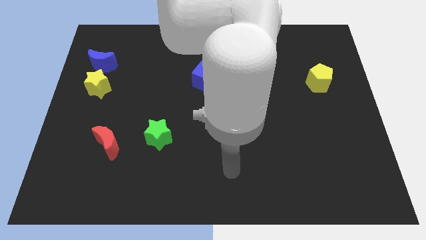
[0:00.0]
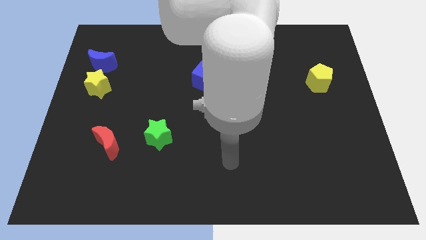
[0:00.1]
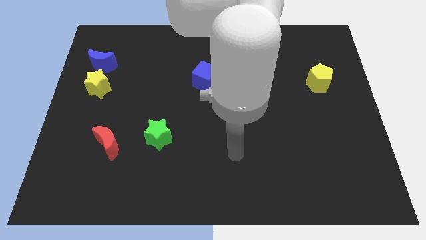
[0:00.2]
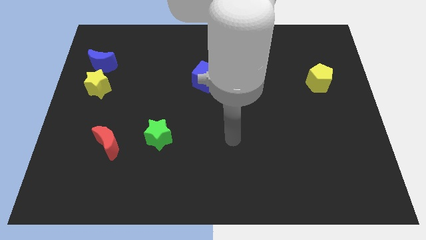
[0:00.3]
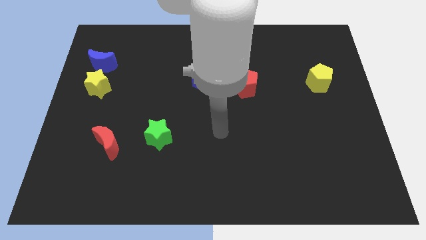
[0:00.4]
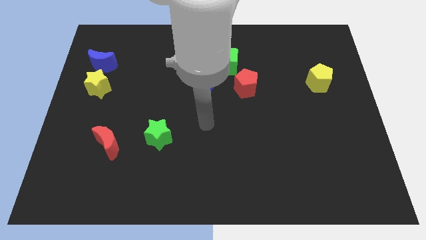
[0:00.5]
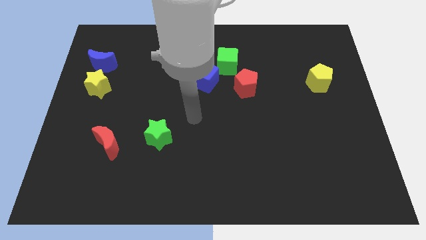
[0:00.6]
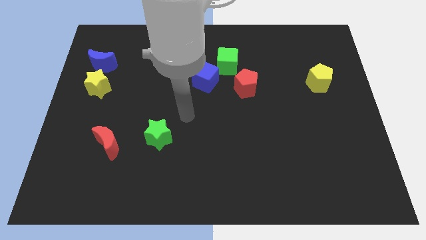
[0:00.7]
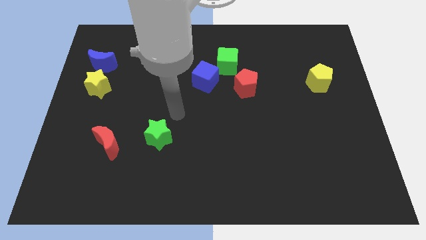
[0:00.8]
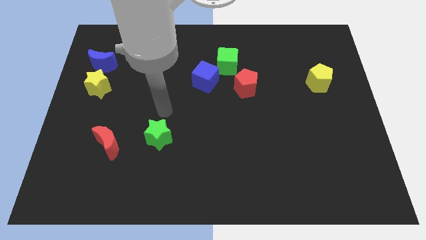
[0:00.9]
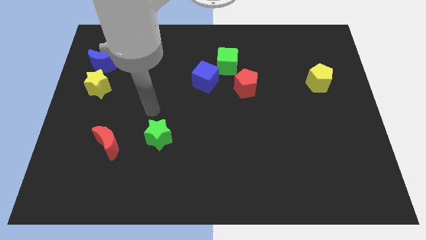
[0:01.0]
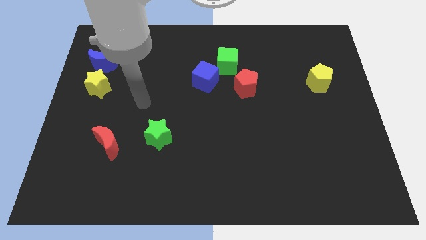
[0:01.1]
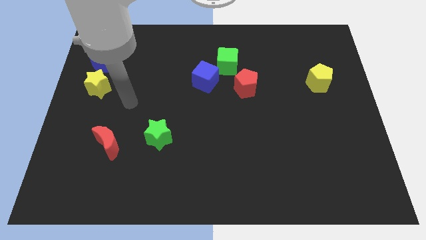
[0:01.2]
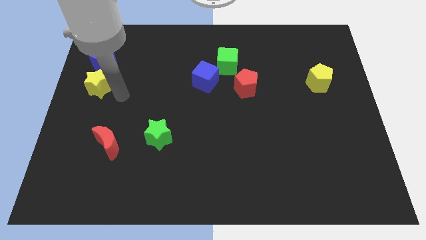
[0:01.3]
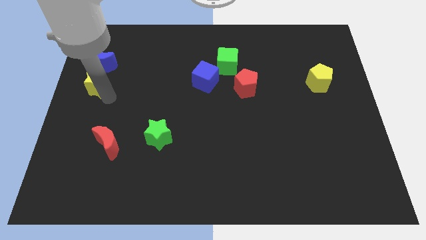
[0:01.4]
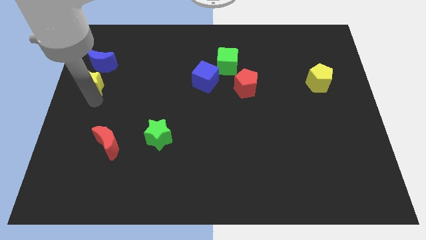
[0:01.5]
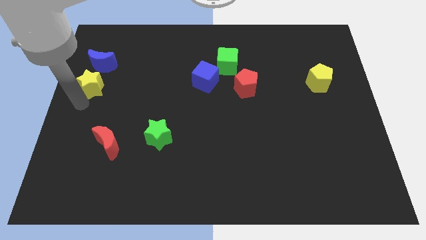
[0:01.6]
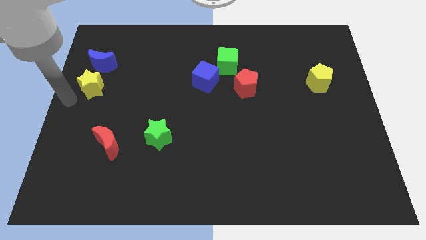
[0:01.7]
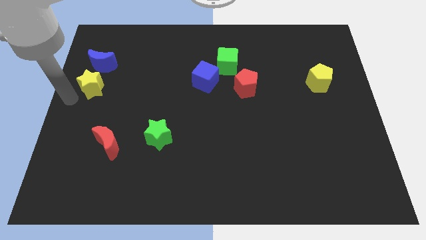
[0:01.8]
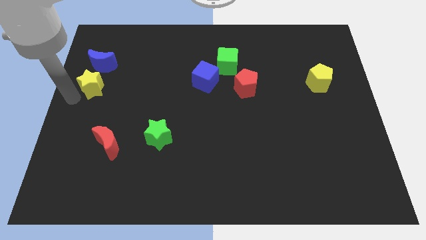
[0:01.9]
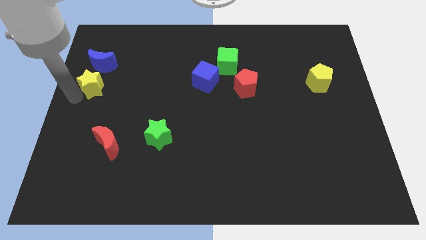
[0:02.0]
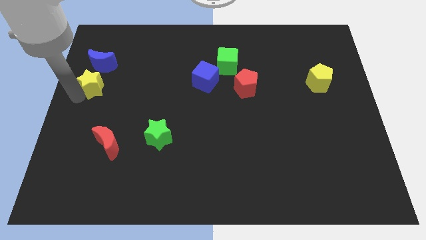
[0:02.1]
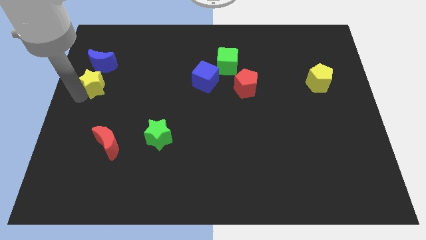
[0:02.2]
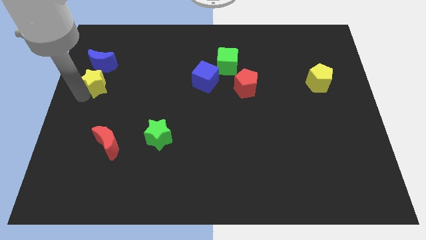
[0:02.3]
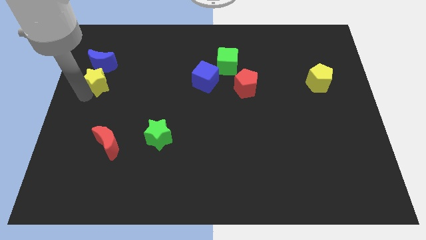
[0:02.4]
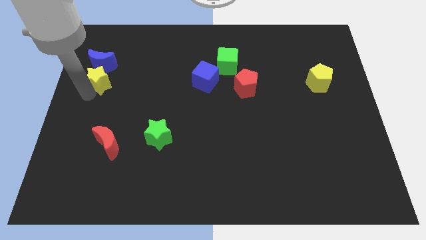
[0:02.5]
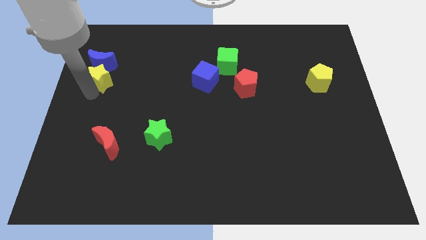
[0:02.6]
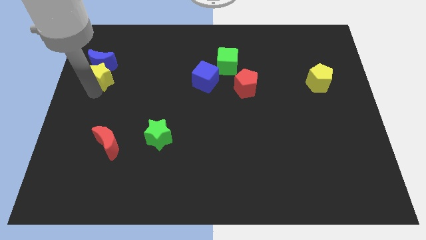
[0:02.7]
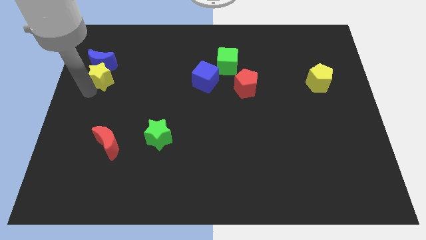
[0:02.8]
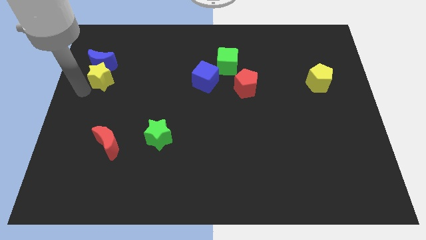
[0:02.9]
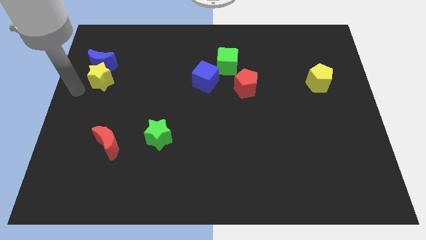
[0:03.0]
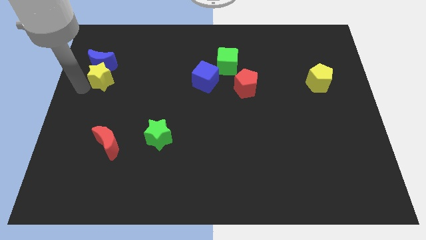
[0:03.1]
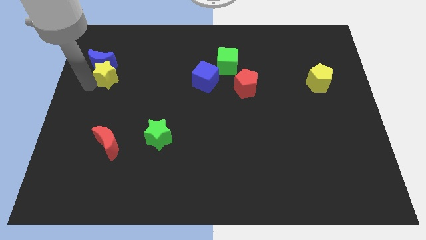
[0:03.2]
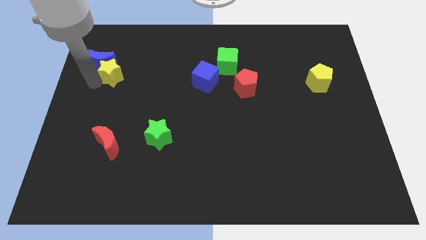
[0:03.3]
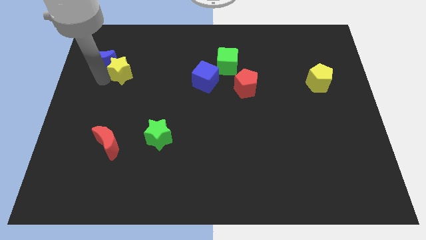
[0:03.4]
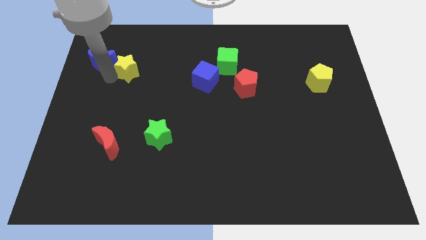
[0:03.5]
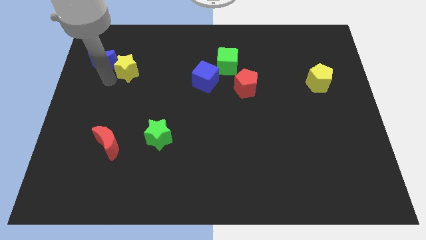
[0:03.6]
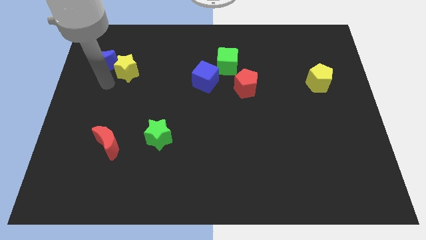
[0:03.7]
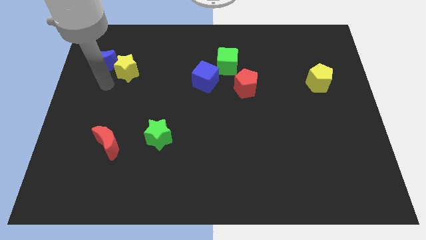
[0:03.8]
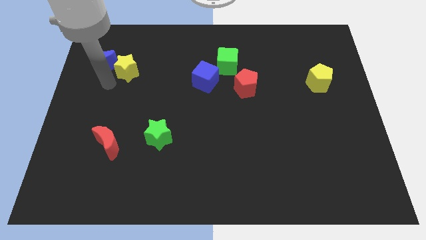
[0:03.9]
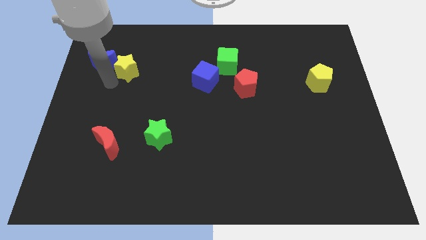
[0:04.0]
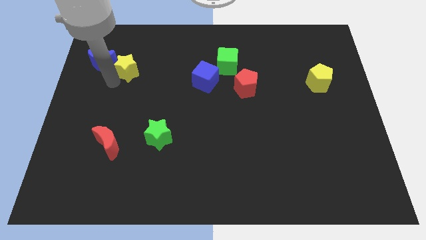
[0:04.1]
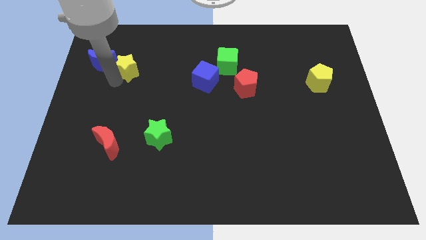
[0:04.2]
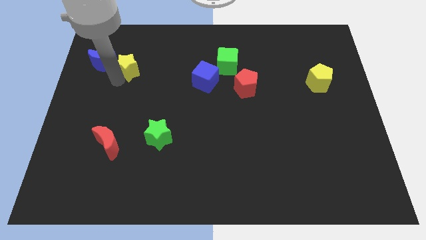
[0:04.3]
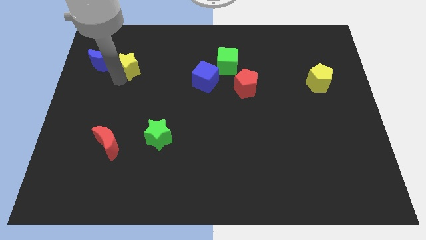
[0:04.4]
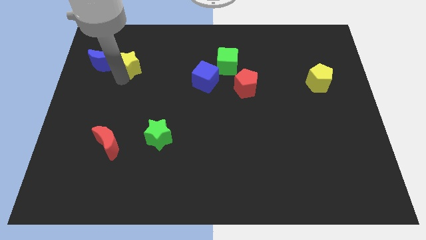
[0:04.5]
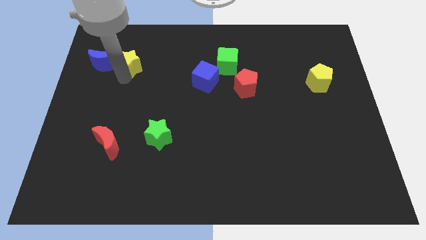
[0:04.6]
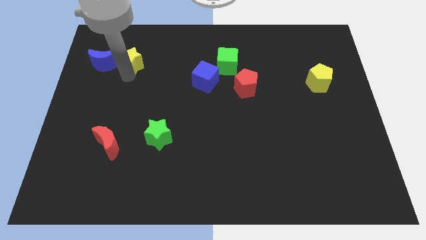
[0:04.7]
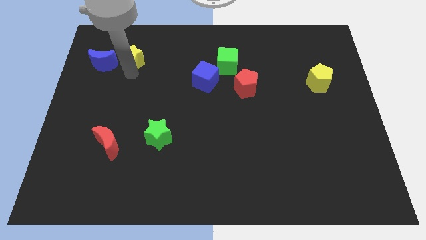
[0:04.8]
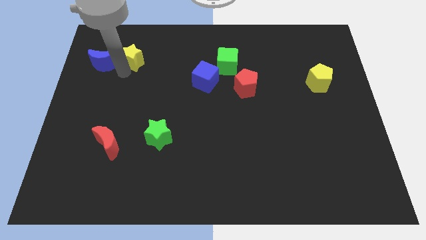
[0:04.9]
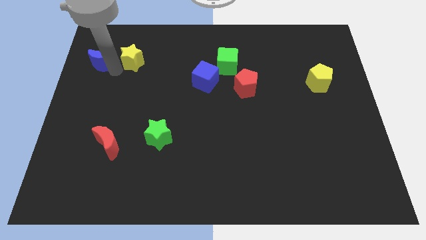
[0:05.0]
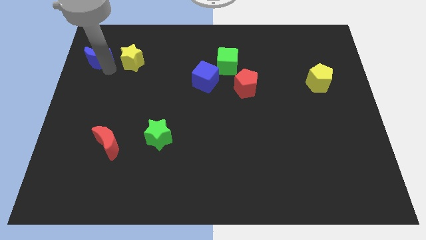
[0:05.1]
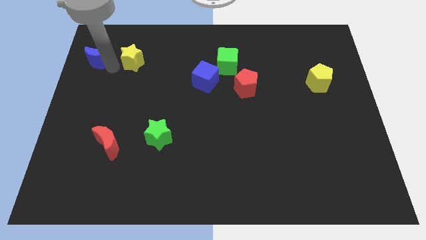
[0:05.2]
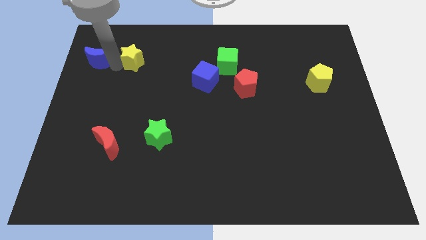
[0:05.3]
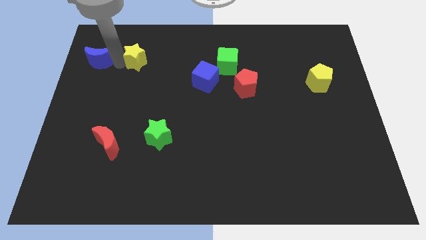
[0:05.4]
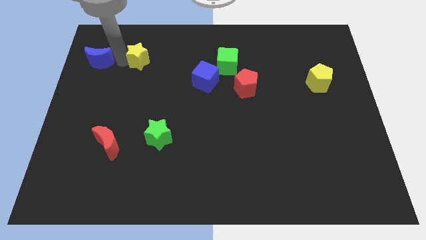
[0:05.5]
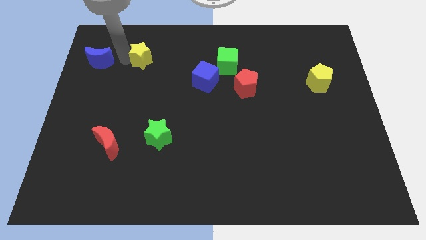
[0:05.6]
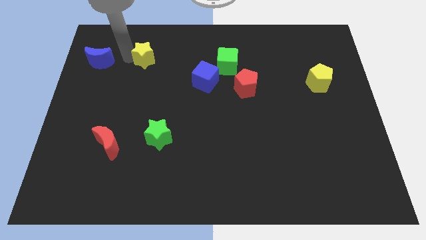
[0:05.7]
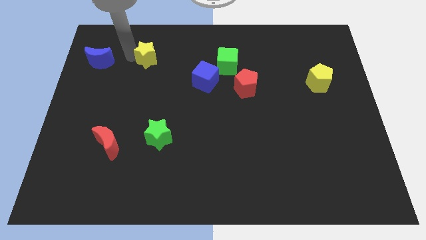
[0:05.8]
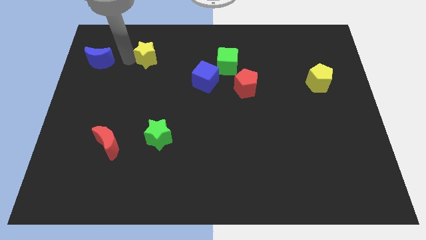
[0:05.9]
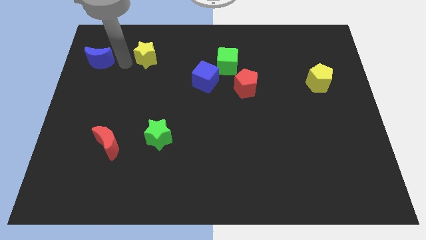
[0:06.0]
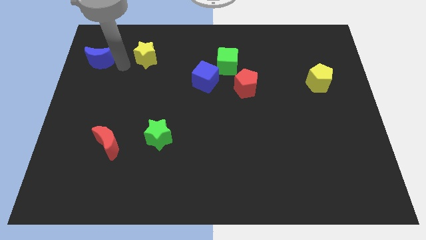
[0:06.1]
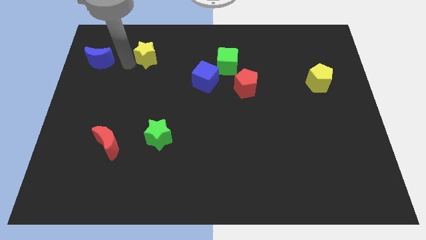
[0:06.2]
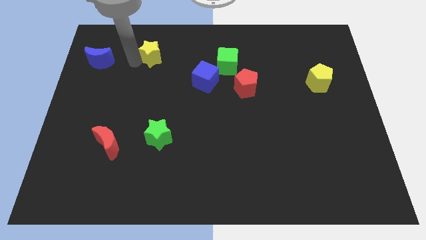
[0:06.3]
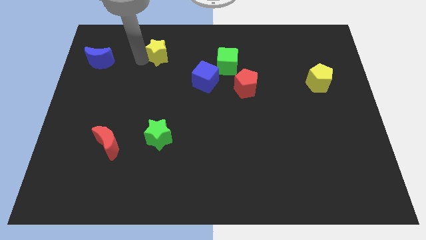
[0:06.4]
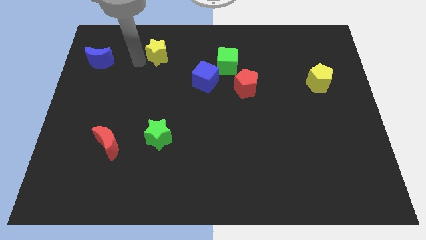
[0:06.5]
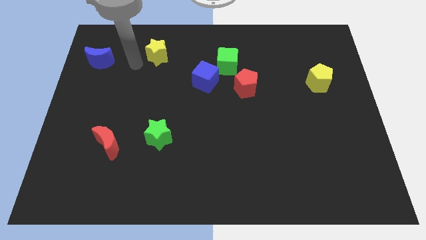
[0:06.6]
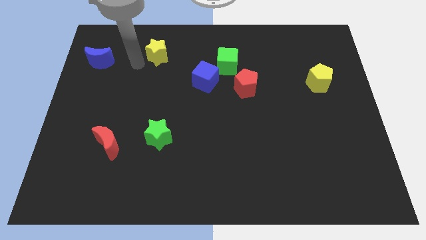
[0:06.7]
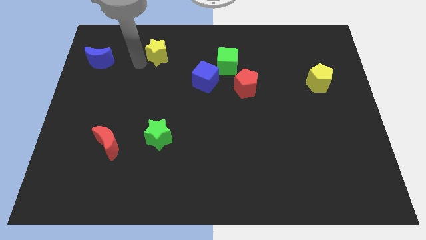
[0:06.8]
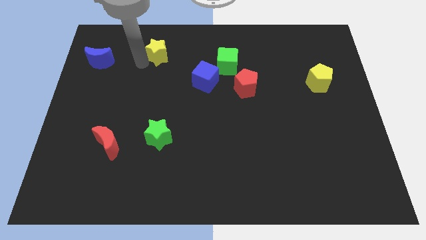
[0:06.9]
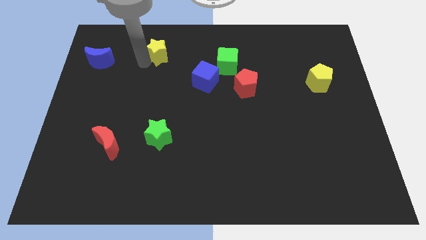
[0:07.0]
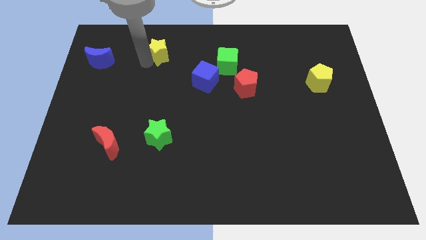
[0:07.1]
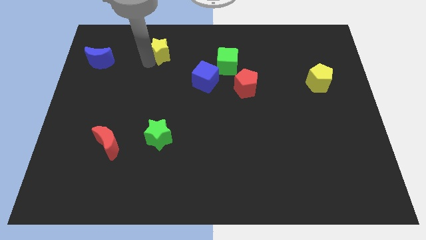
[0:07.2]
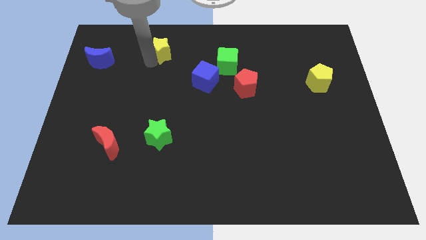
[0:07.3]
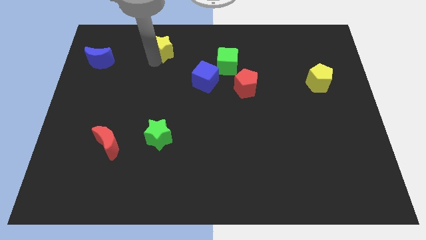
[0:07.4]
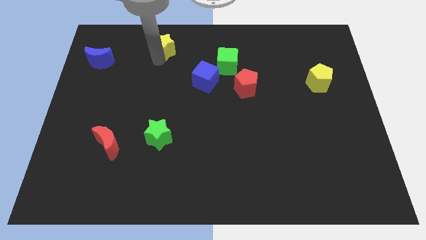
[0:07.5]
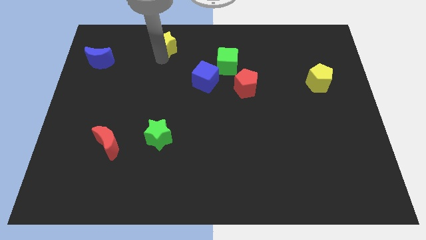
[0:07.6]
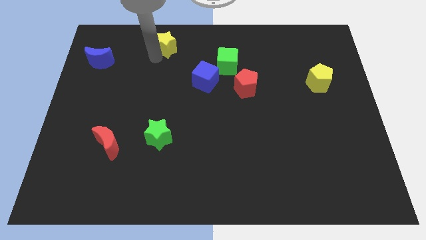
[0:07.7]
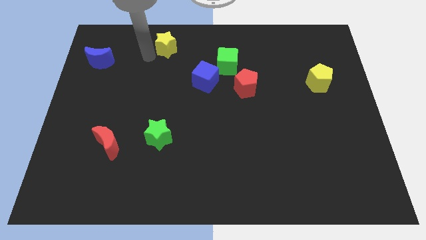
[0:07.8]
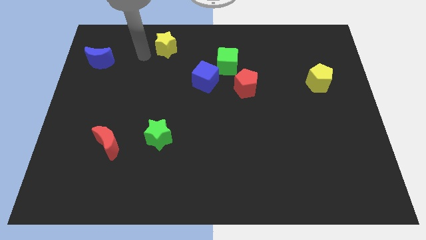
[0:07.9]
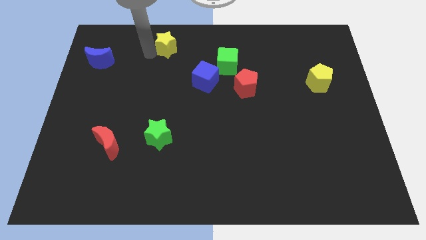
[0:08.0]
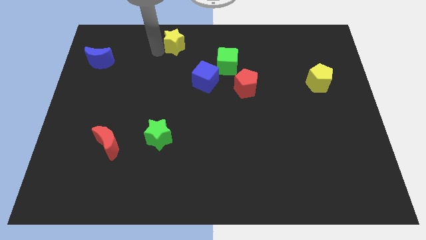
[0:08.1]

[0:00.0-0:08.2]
move the yellow star to the top side
